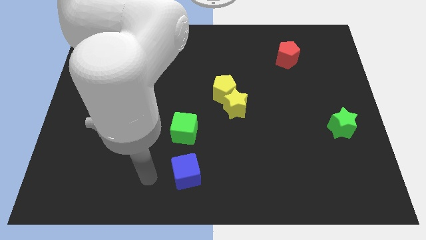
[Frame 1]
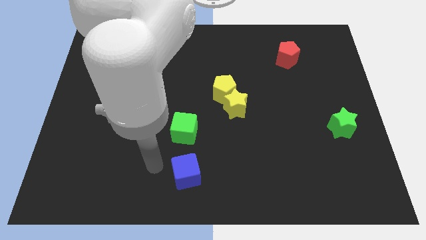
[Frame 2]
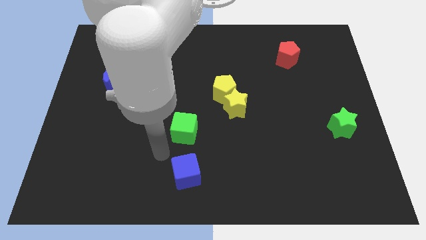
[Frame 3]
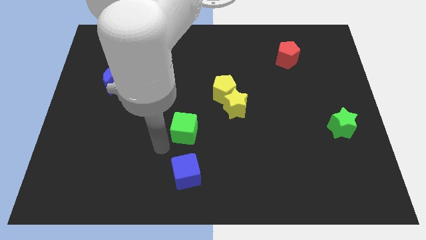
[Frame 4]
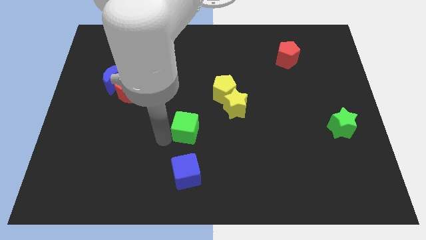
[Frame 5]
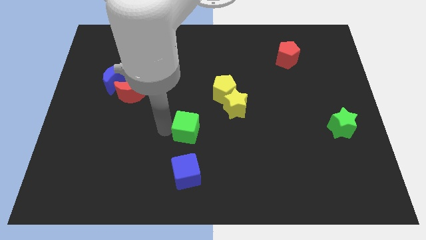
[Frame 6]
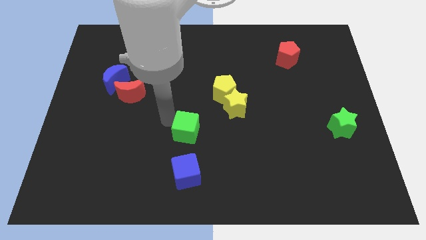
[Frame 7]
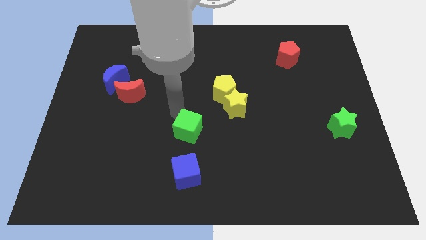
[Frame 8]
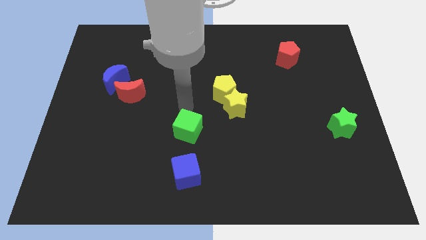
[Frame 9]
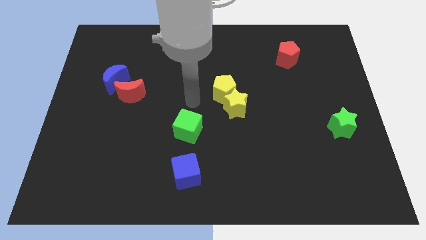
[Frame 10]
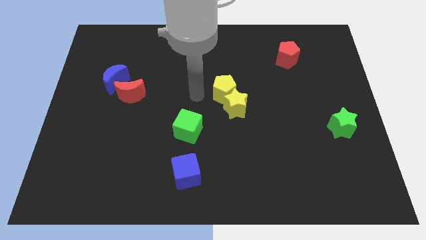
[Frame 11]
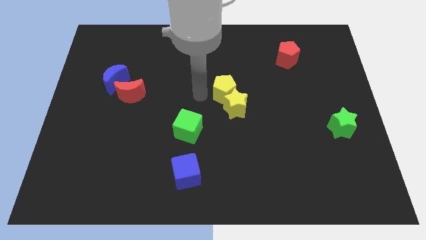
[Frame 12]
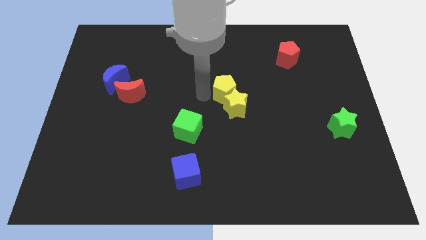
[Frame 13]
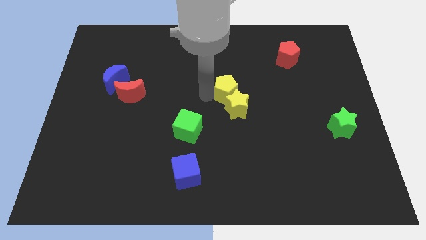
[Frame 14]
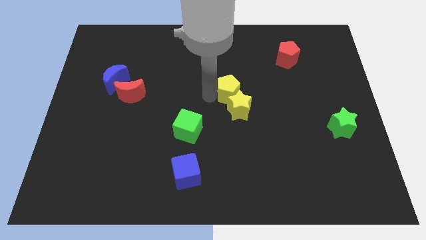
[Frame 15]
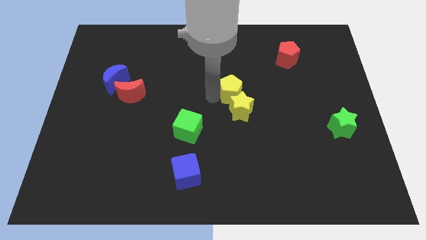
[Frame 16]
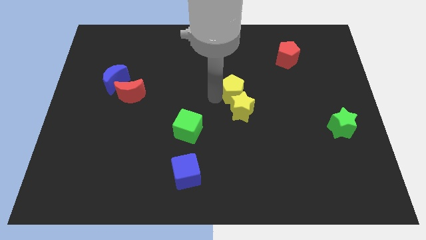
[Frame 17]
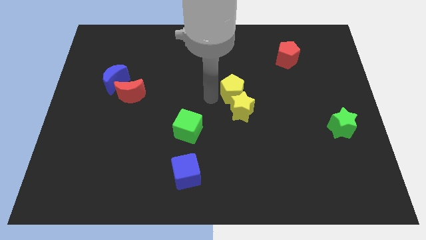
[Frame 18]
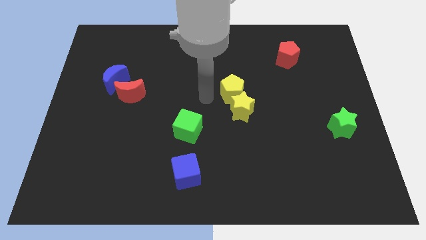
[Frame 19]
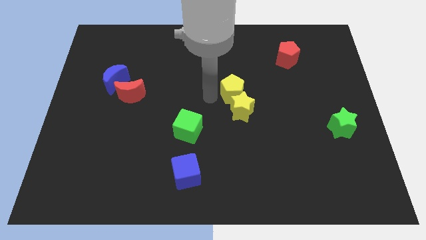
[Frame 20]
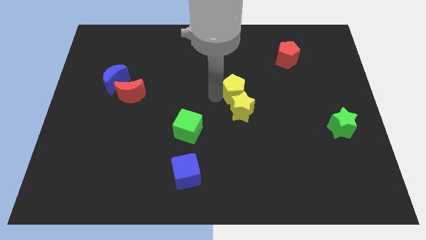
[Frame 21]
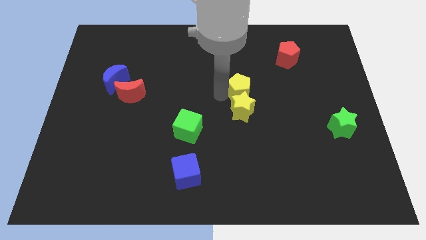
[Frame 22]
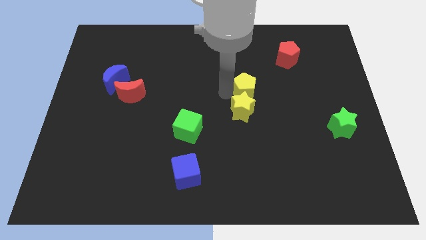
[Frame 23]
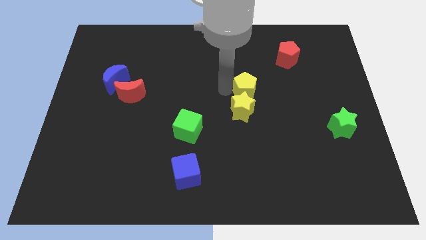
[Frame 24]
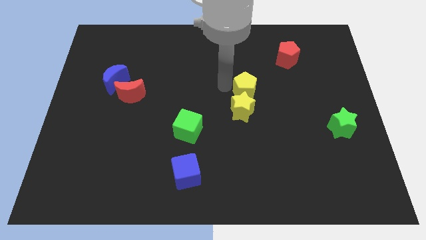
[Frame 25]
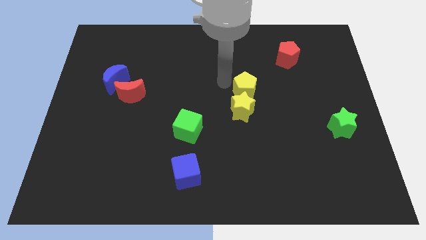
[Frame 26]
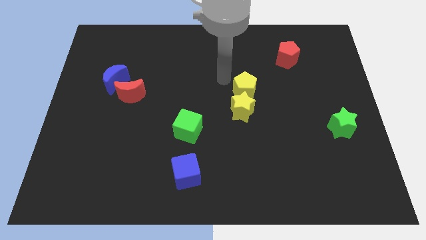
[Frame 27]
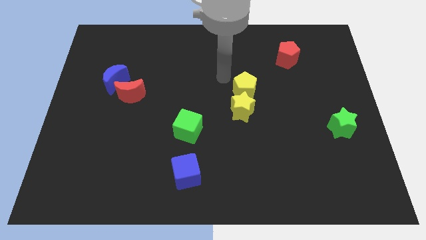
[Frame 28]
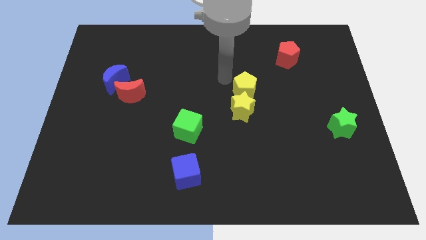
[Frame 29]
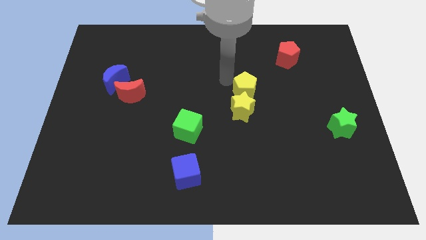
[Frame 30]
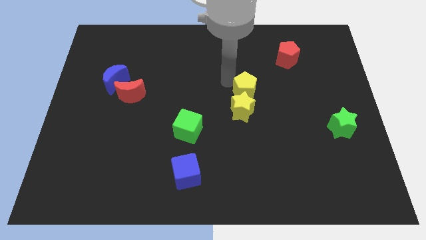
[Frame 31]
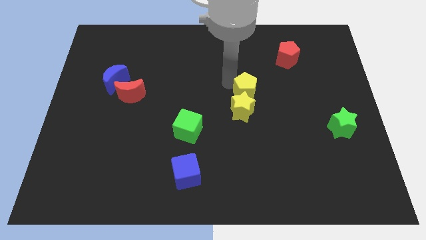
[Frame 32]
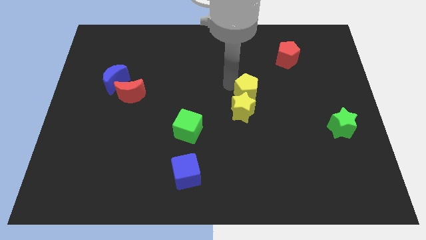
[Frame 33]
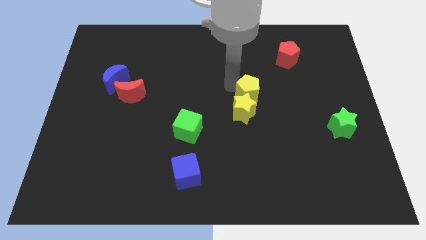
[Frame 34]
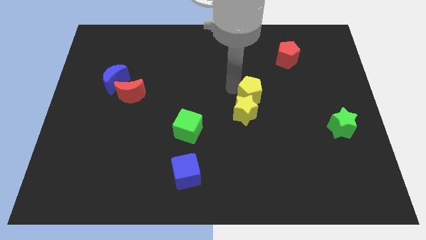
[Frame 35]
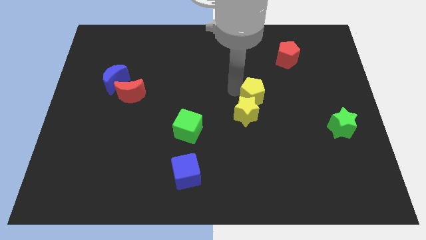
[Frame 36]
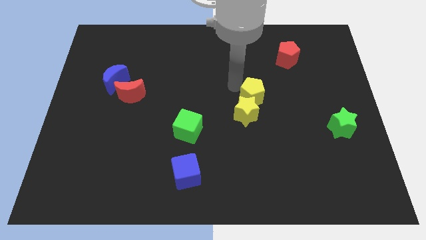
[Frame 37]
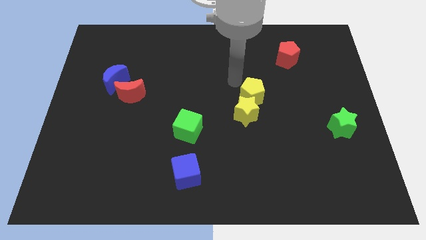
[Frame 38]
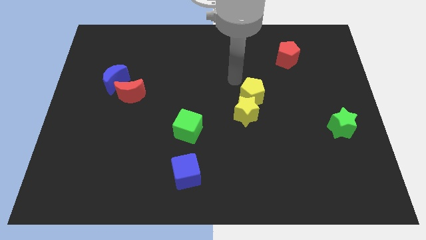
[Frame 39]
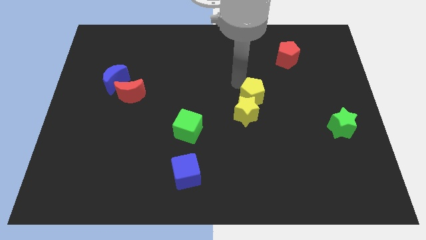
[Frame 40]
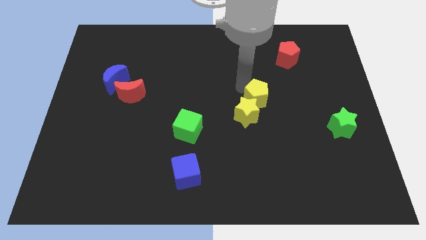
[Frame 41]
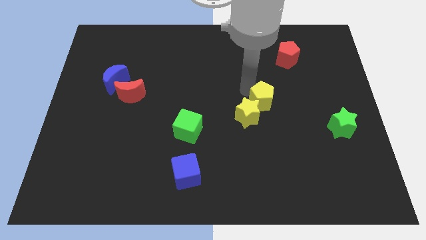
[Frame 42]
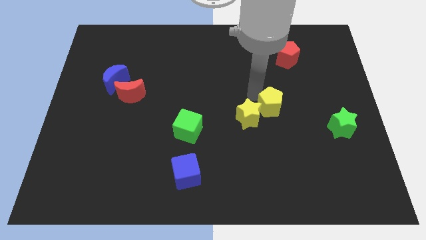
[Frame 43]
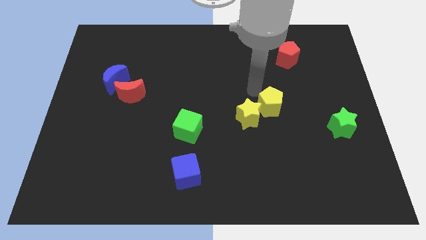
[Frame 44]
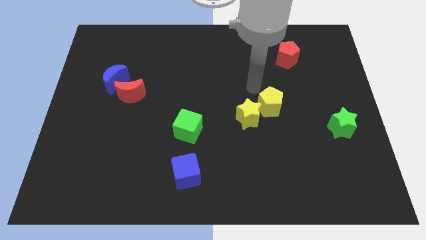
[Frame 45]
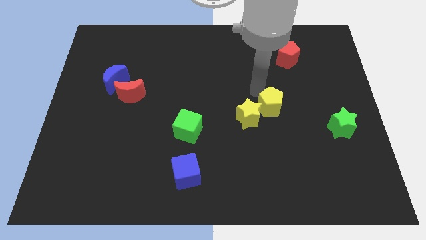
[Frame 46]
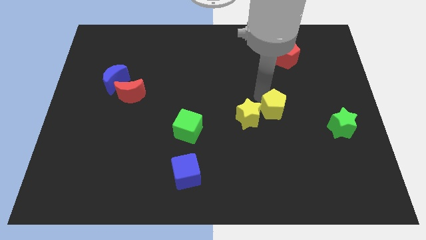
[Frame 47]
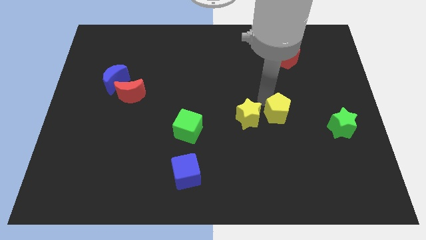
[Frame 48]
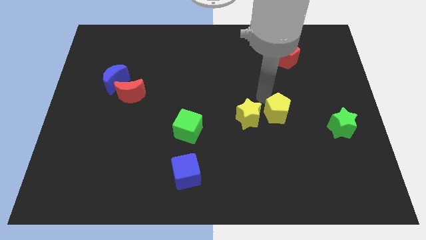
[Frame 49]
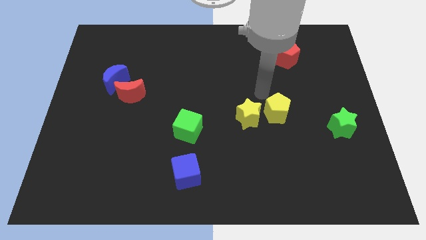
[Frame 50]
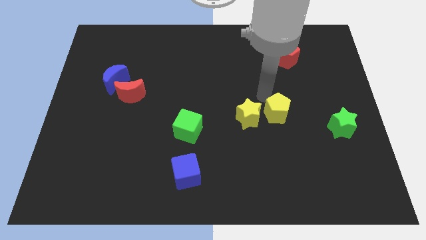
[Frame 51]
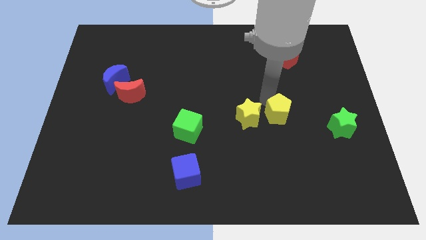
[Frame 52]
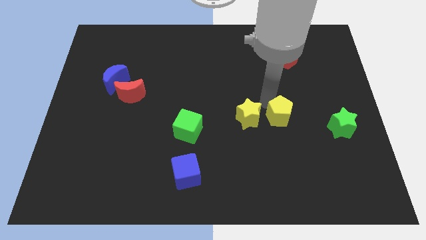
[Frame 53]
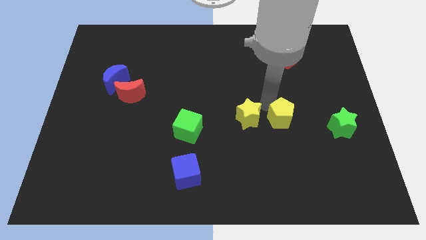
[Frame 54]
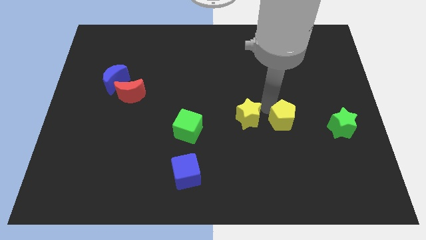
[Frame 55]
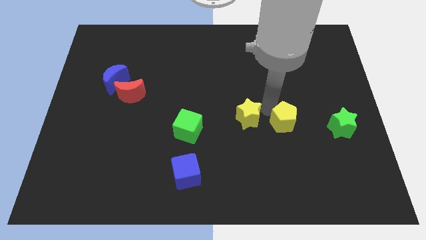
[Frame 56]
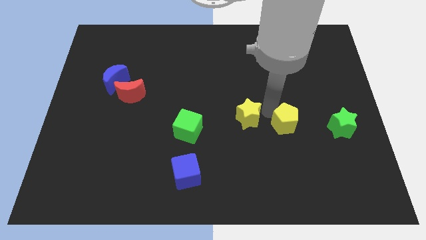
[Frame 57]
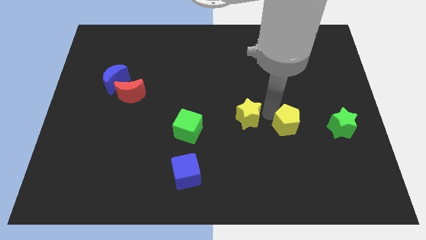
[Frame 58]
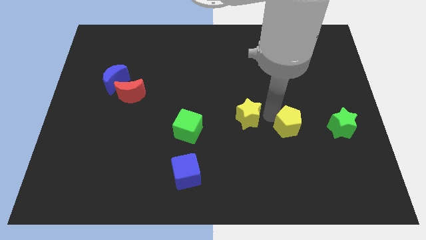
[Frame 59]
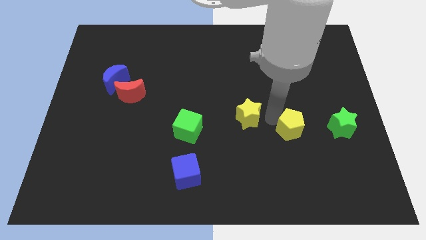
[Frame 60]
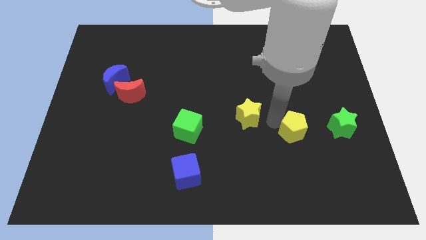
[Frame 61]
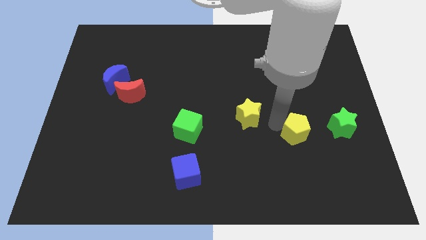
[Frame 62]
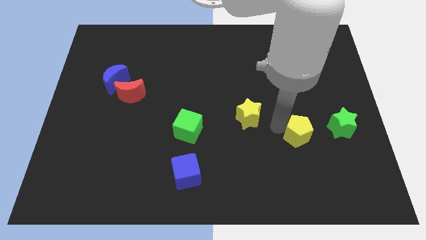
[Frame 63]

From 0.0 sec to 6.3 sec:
slide the yellow pentagon downwards and right diagonally

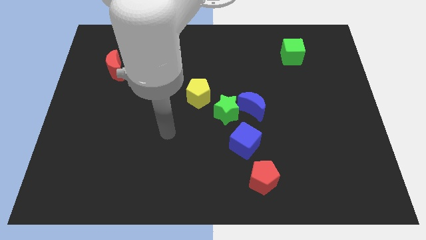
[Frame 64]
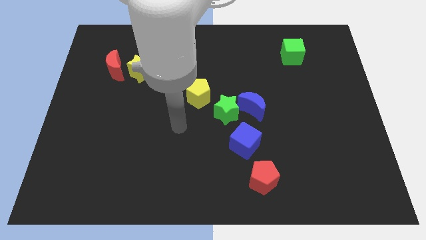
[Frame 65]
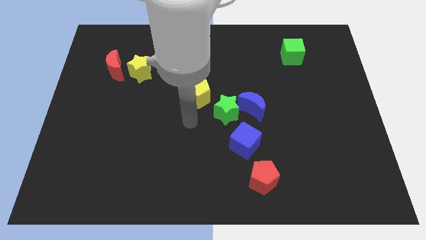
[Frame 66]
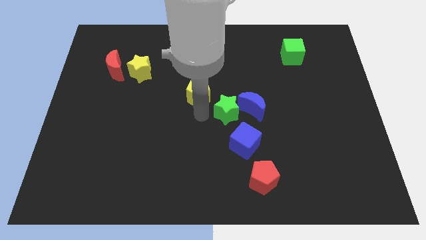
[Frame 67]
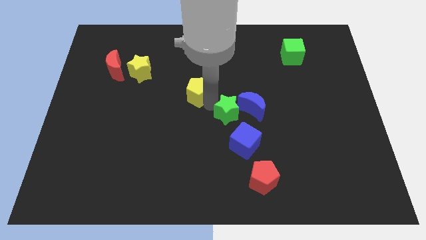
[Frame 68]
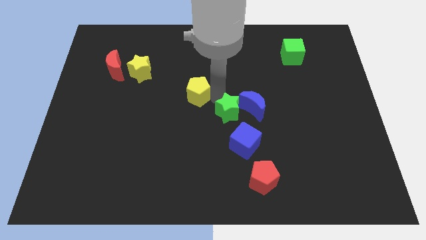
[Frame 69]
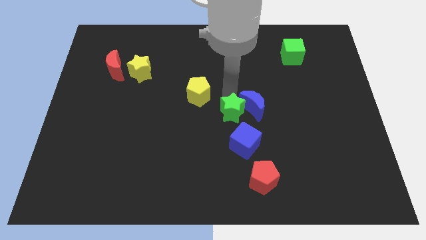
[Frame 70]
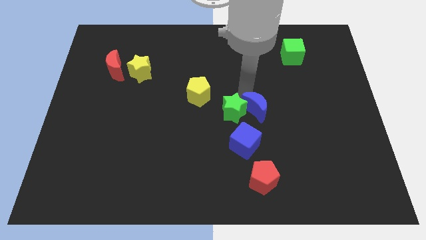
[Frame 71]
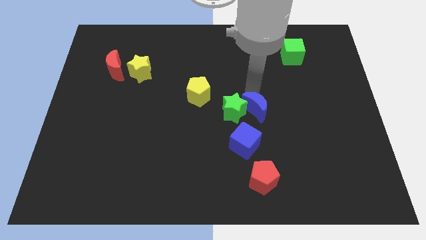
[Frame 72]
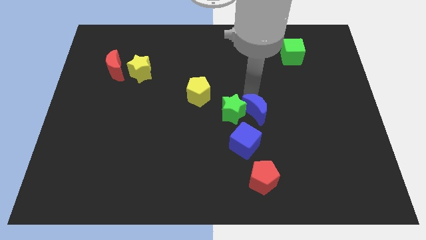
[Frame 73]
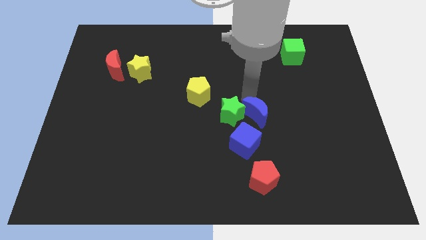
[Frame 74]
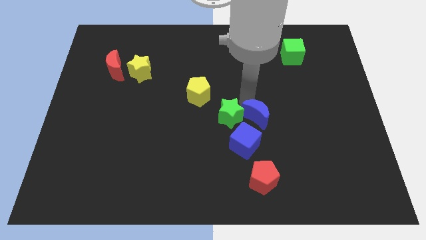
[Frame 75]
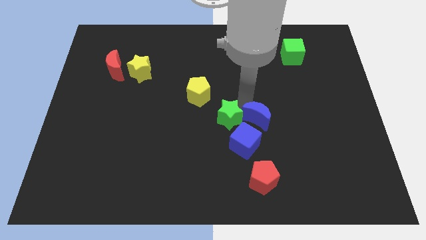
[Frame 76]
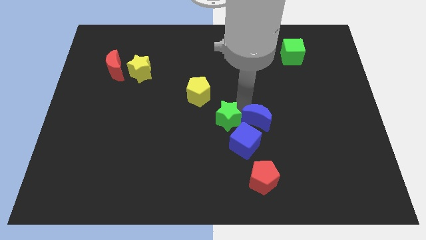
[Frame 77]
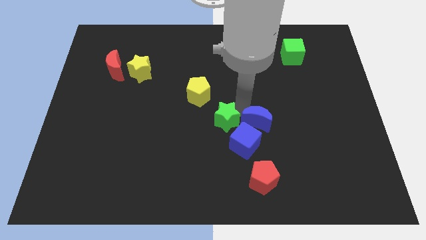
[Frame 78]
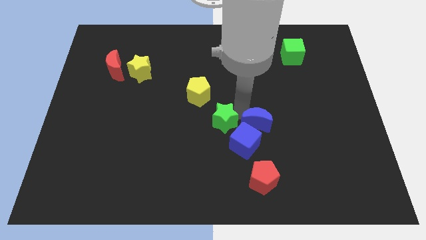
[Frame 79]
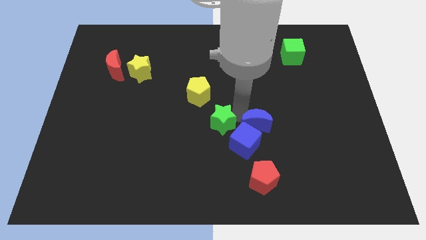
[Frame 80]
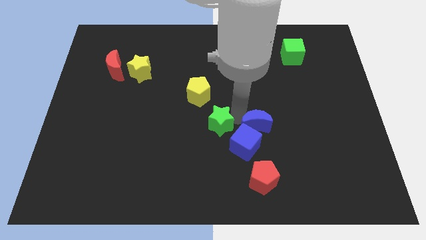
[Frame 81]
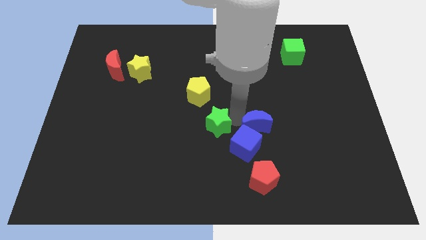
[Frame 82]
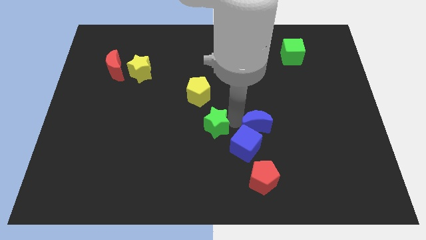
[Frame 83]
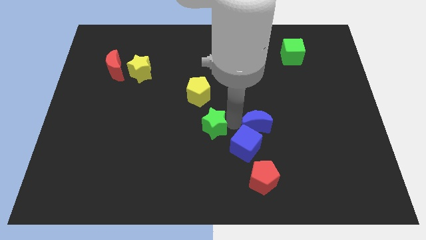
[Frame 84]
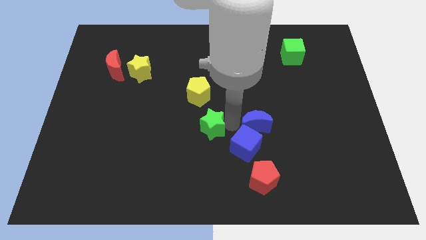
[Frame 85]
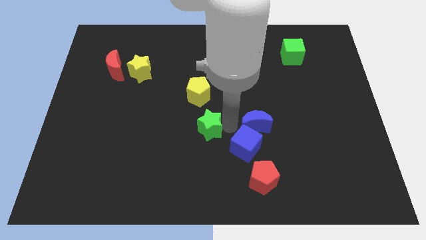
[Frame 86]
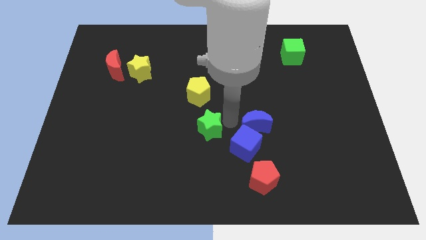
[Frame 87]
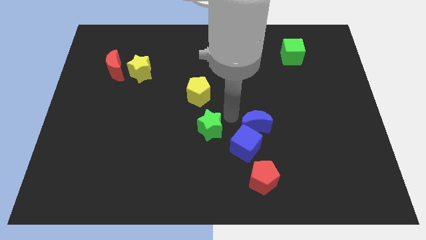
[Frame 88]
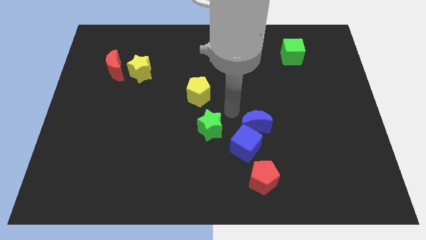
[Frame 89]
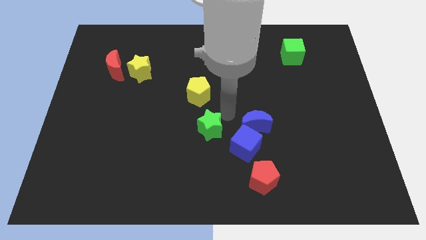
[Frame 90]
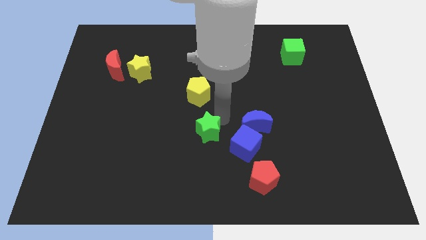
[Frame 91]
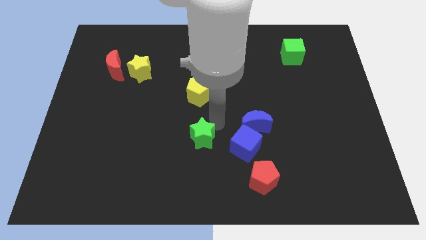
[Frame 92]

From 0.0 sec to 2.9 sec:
slide the green star a little bit diagonally down and to the left
